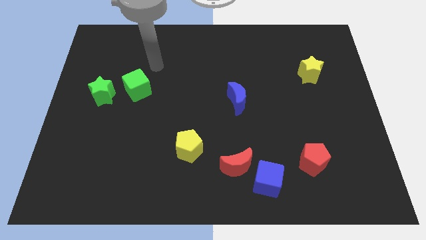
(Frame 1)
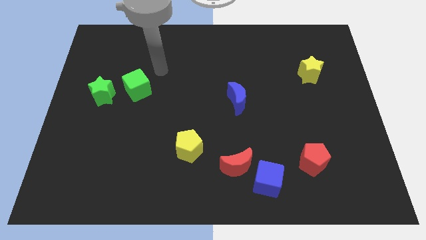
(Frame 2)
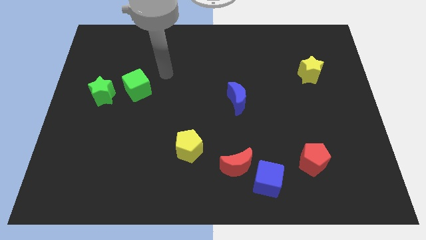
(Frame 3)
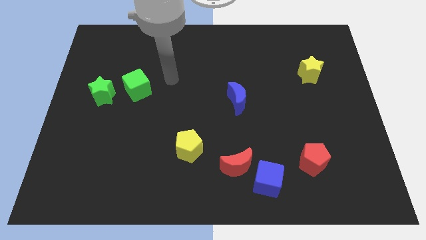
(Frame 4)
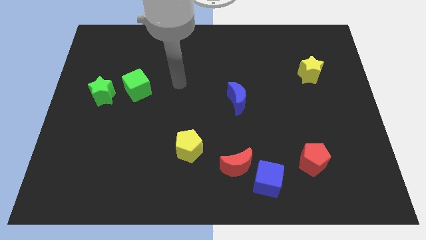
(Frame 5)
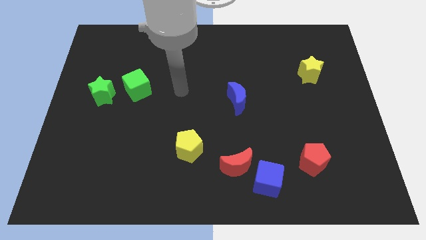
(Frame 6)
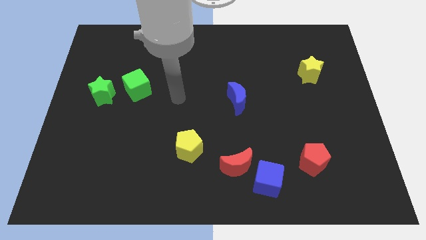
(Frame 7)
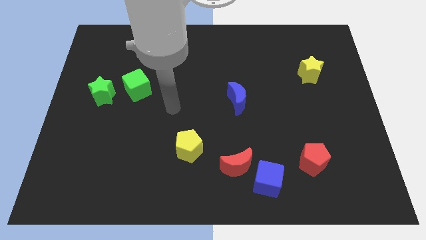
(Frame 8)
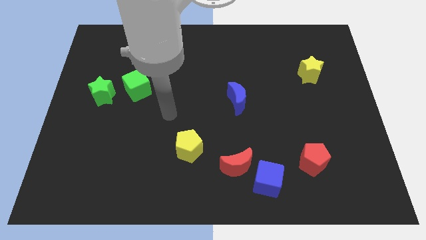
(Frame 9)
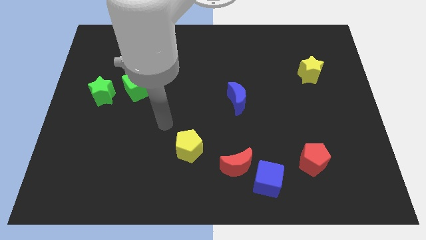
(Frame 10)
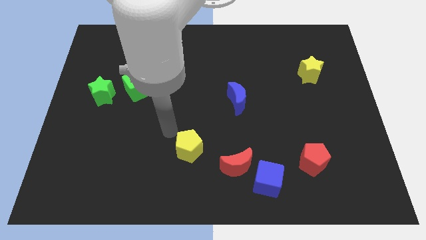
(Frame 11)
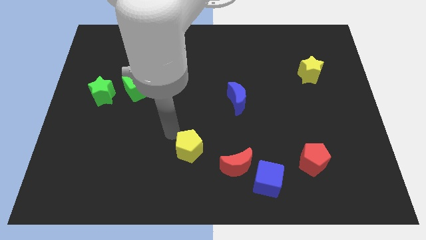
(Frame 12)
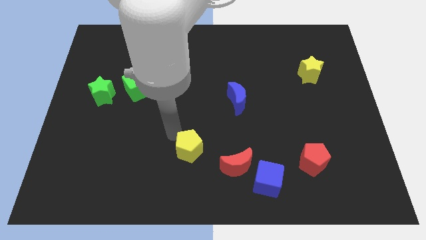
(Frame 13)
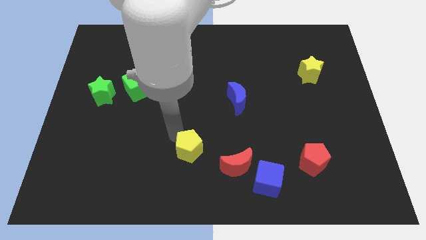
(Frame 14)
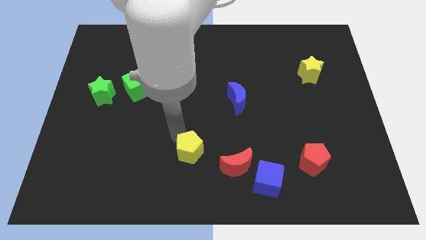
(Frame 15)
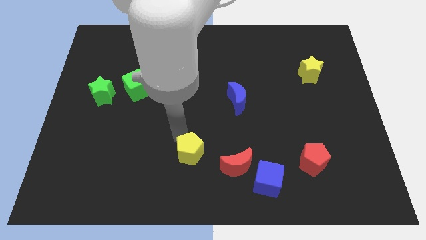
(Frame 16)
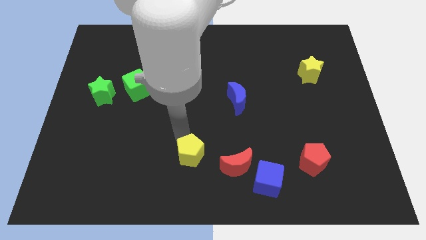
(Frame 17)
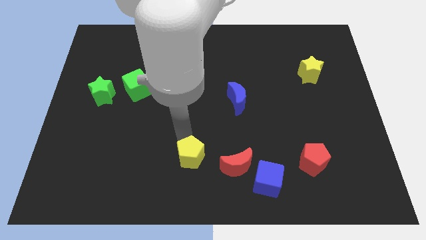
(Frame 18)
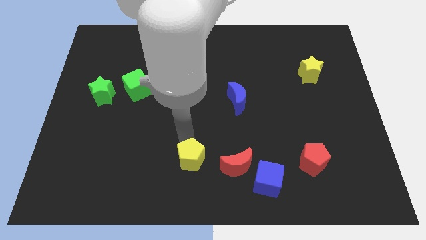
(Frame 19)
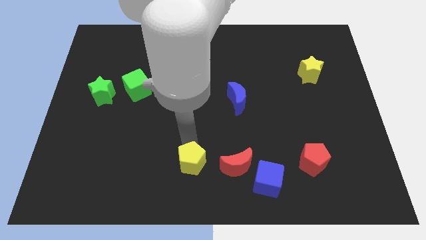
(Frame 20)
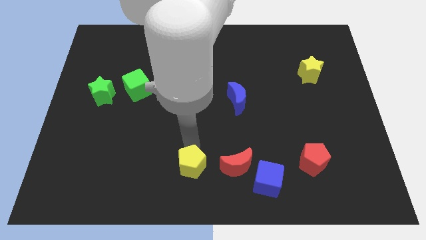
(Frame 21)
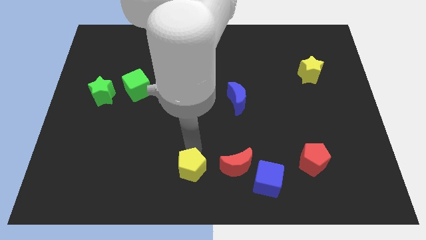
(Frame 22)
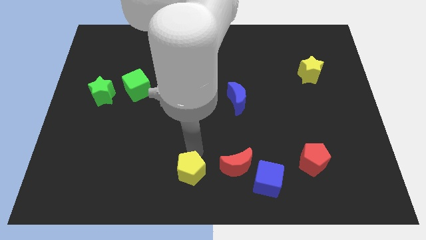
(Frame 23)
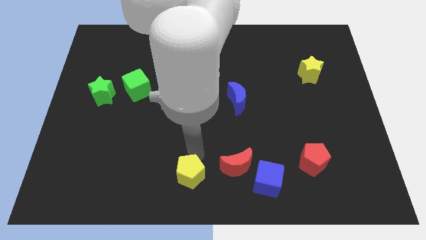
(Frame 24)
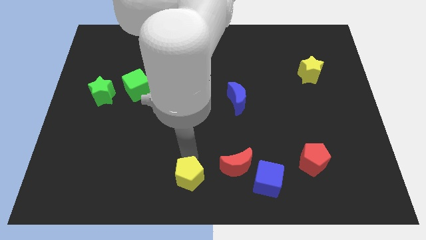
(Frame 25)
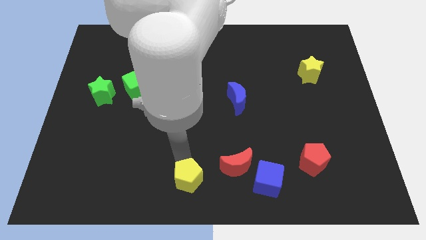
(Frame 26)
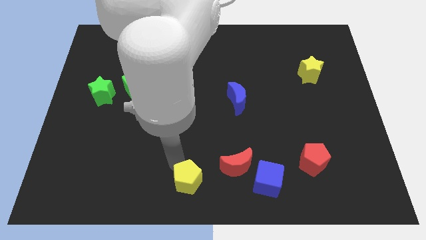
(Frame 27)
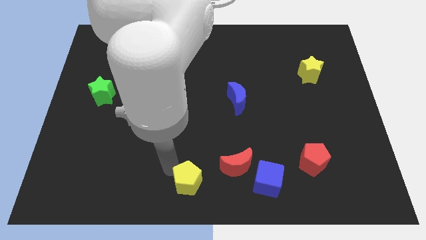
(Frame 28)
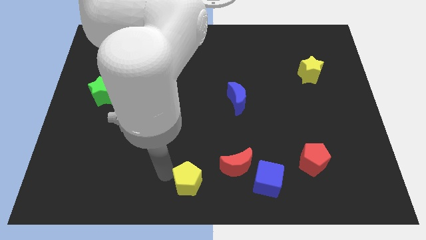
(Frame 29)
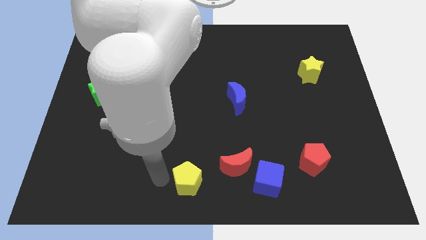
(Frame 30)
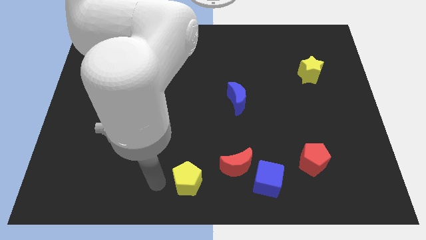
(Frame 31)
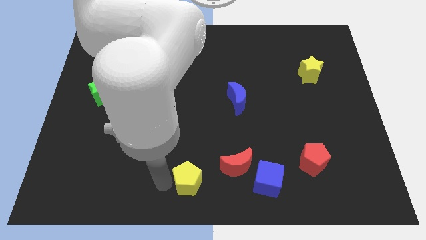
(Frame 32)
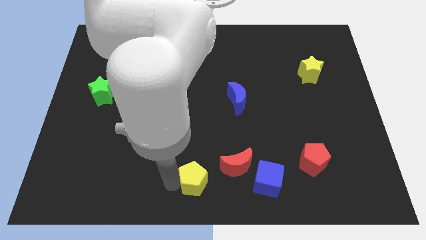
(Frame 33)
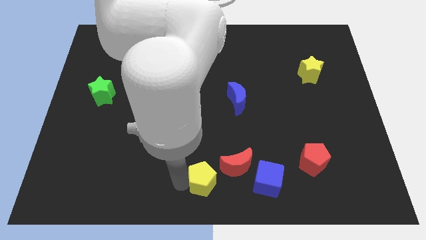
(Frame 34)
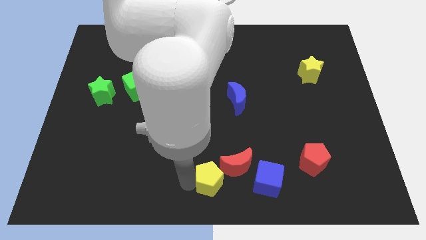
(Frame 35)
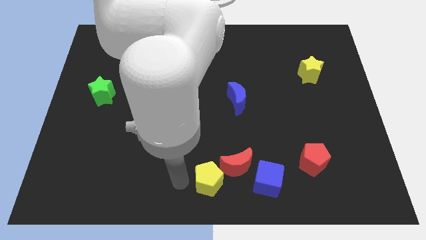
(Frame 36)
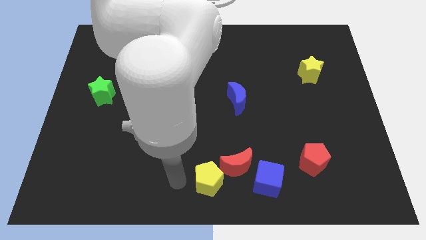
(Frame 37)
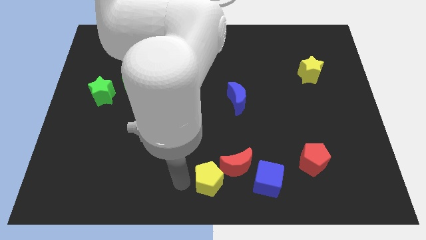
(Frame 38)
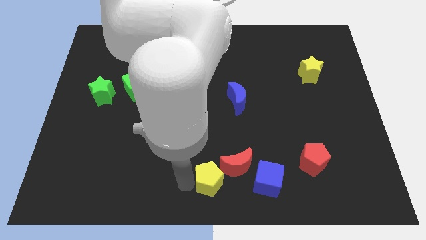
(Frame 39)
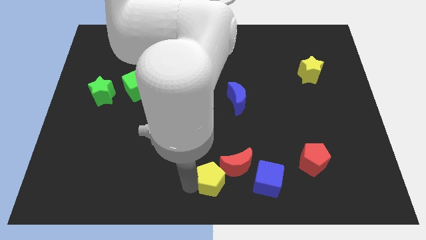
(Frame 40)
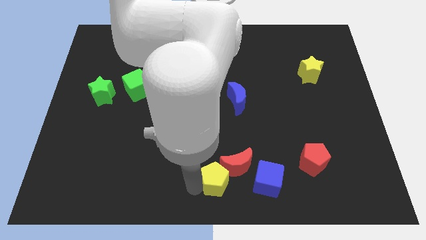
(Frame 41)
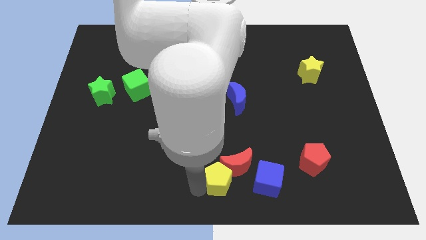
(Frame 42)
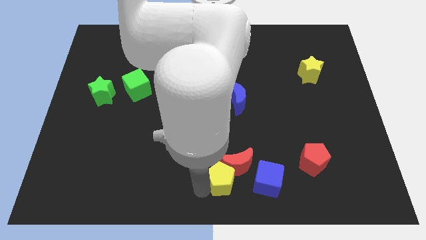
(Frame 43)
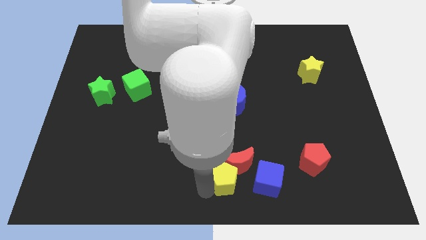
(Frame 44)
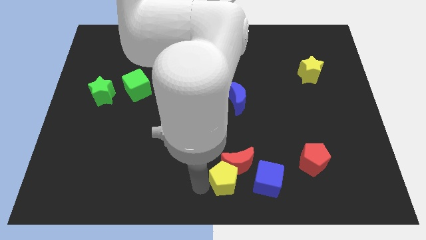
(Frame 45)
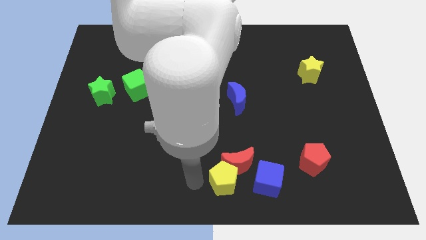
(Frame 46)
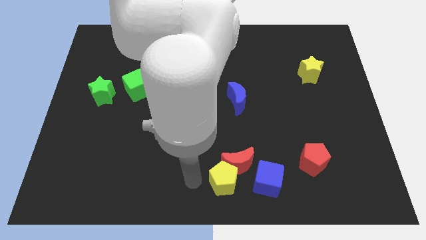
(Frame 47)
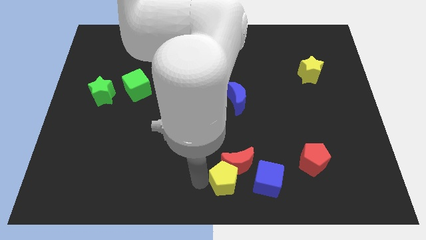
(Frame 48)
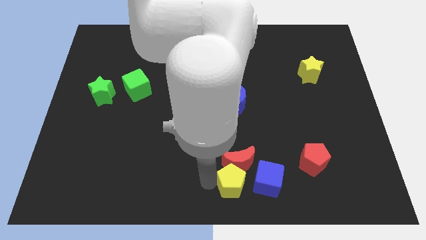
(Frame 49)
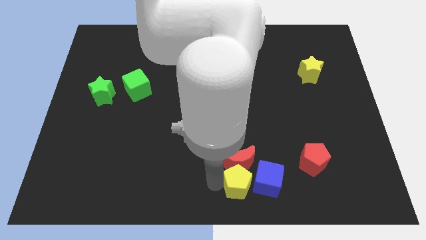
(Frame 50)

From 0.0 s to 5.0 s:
push the yellow pentagon close to the blue cube

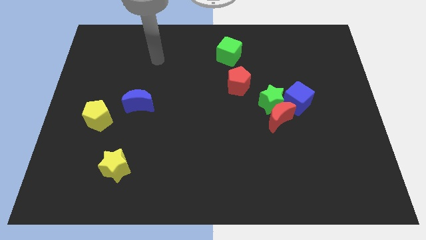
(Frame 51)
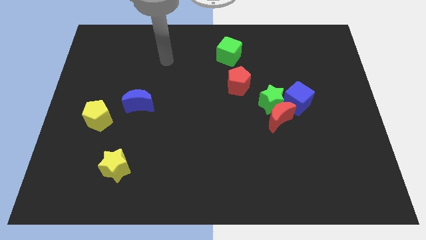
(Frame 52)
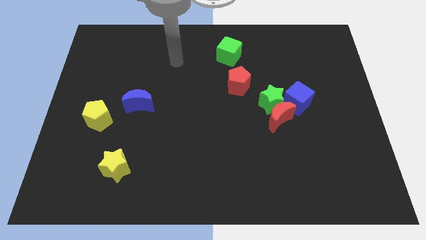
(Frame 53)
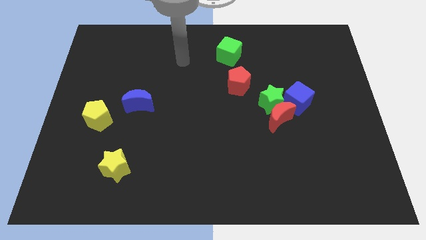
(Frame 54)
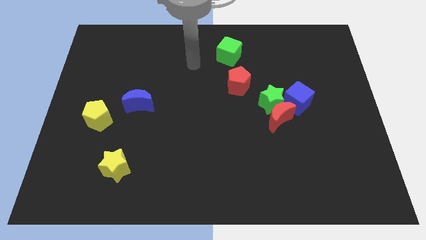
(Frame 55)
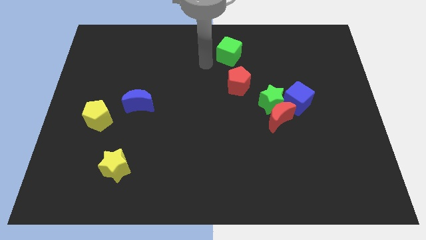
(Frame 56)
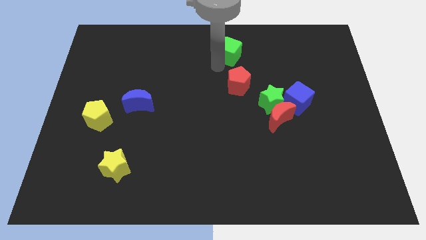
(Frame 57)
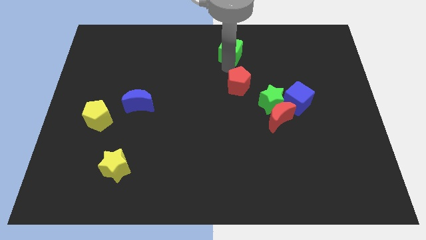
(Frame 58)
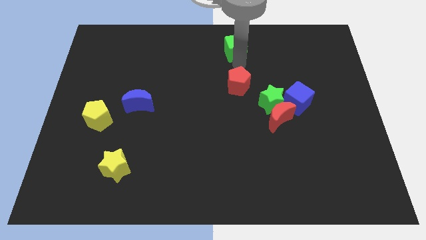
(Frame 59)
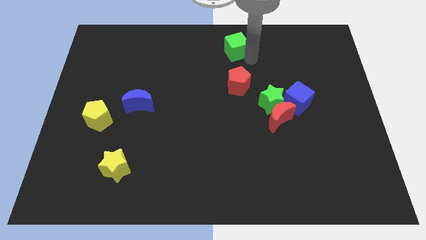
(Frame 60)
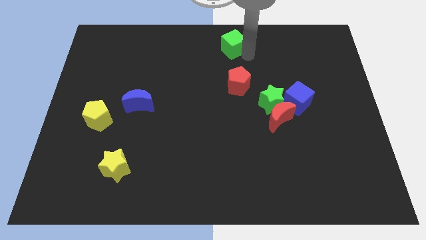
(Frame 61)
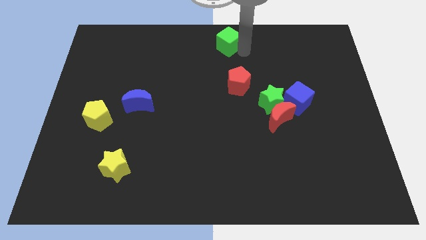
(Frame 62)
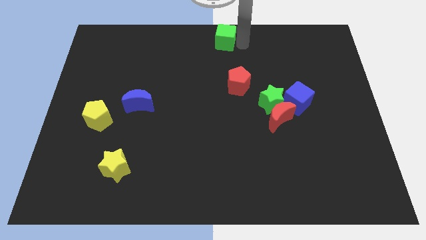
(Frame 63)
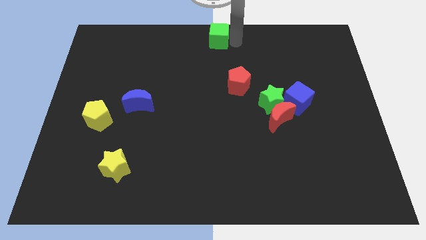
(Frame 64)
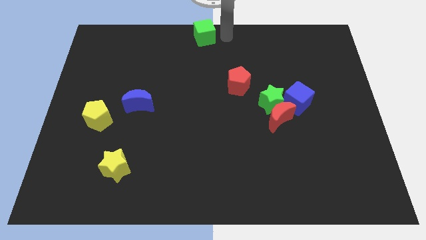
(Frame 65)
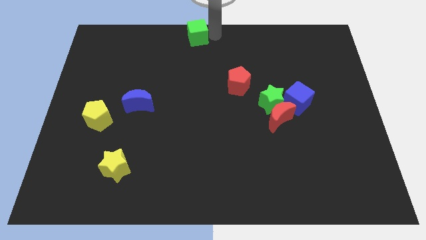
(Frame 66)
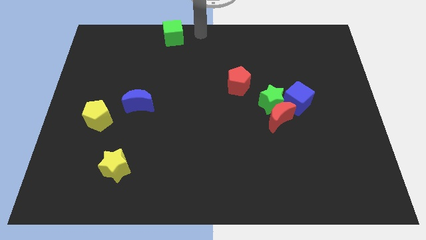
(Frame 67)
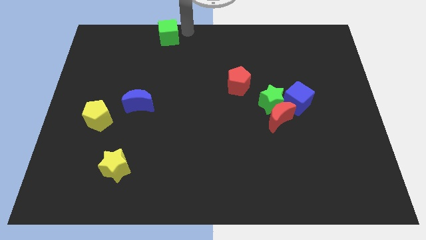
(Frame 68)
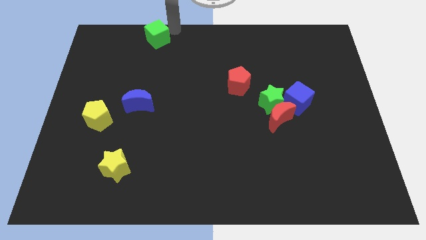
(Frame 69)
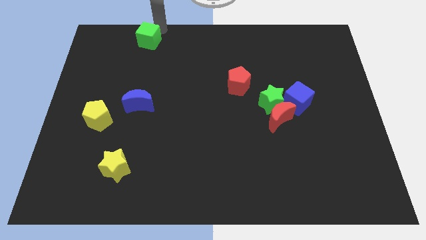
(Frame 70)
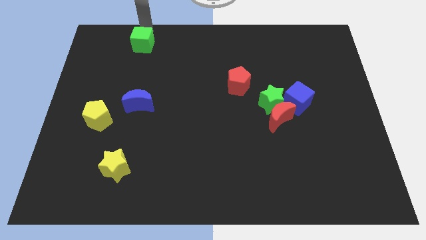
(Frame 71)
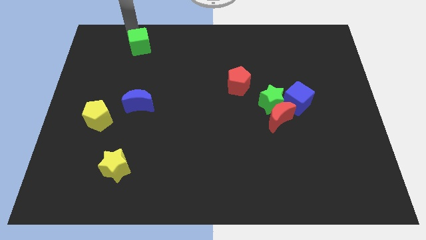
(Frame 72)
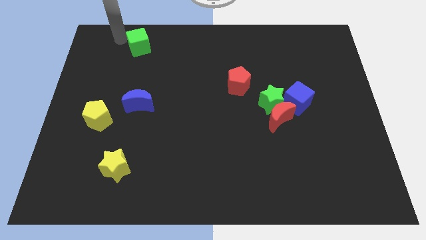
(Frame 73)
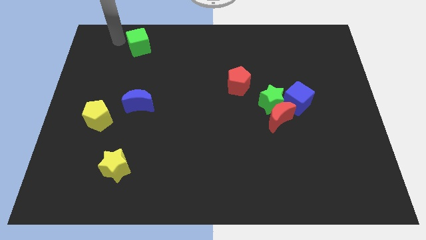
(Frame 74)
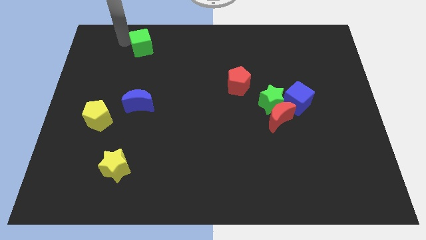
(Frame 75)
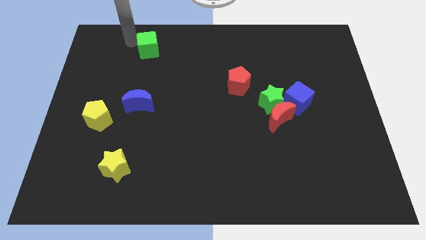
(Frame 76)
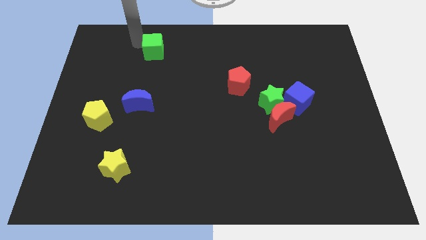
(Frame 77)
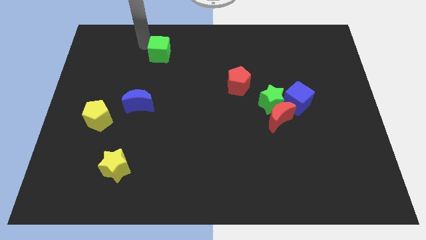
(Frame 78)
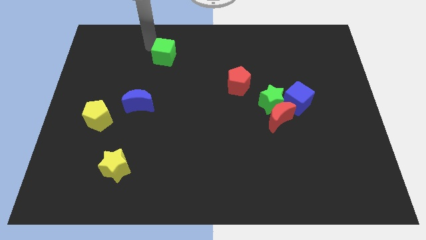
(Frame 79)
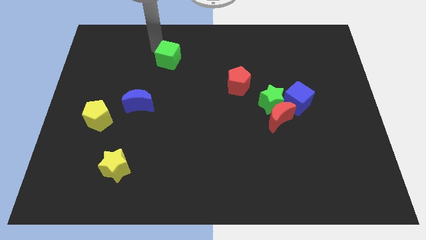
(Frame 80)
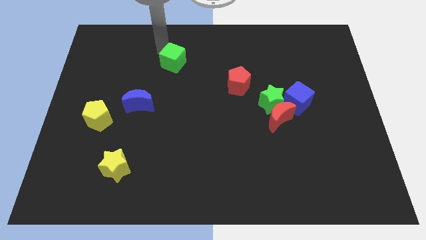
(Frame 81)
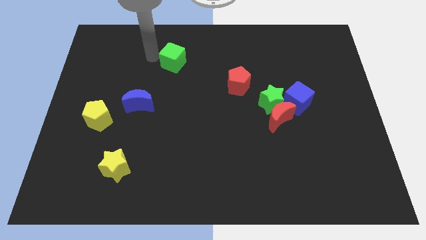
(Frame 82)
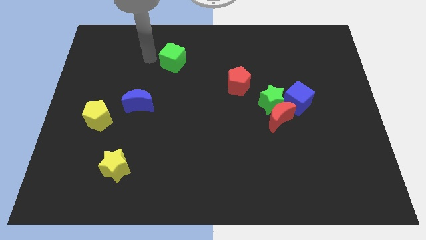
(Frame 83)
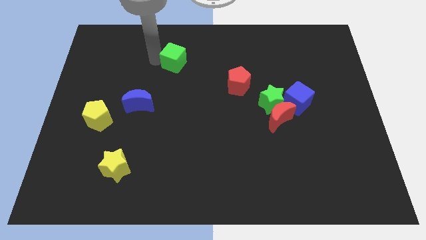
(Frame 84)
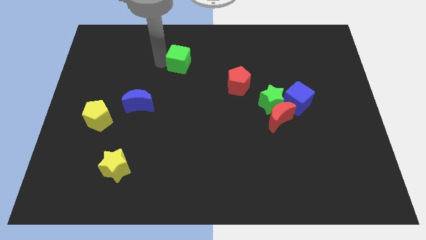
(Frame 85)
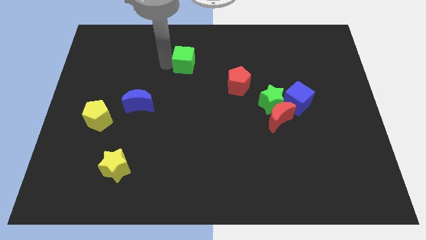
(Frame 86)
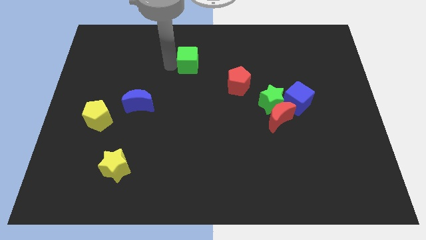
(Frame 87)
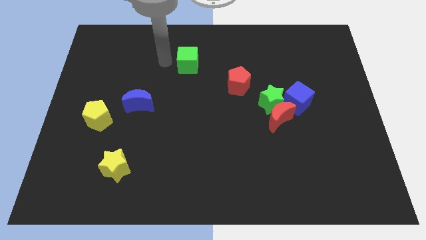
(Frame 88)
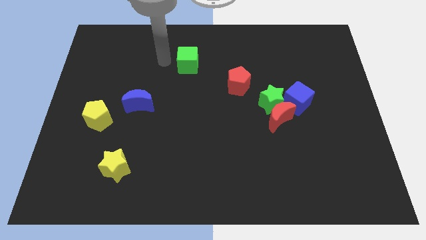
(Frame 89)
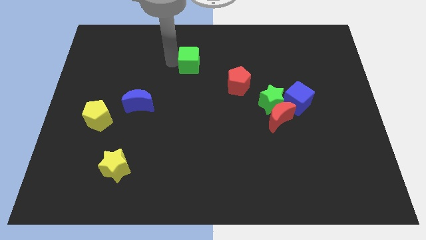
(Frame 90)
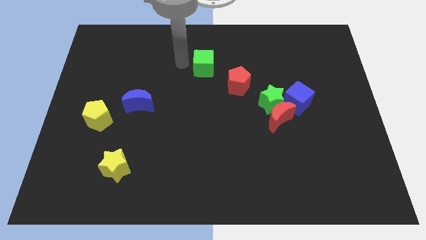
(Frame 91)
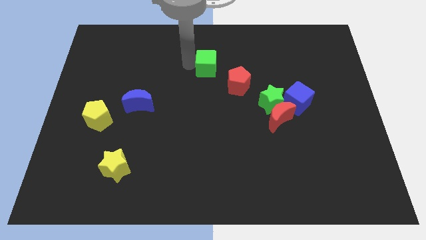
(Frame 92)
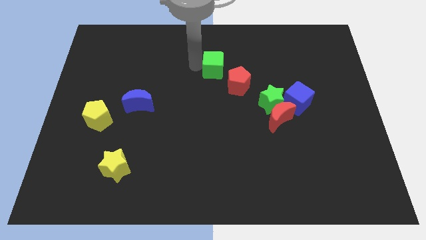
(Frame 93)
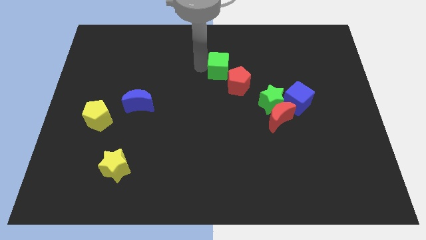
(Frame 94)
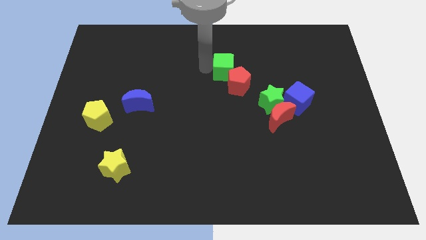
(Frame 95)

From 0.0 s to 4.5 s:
move the green cube towards the red pentagon
